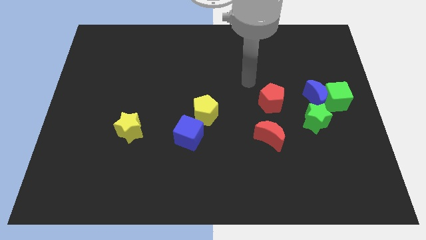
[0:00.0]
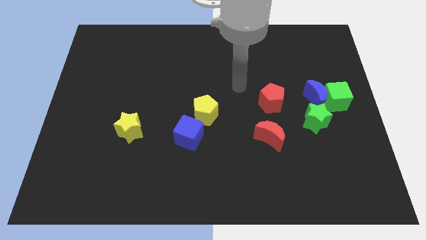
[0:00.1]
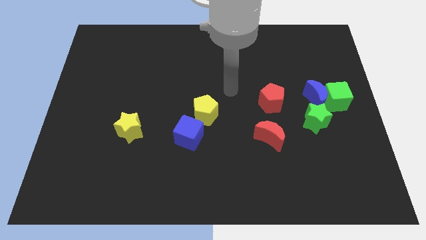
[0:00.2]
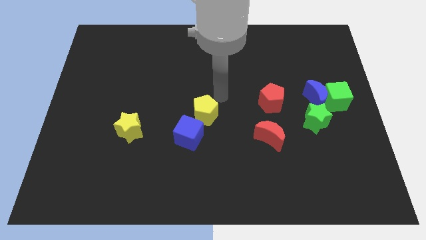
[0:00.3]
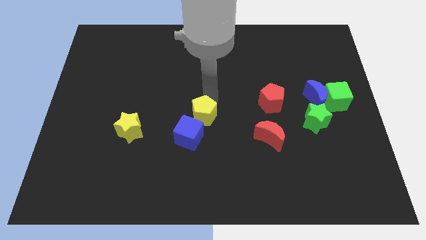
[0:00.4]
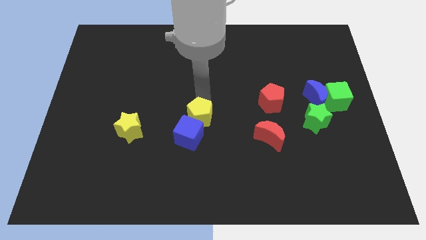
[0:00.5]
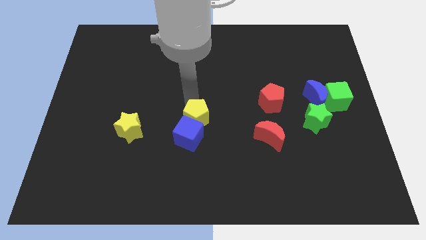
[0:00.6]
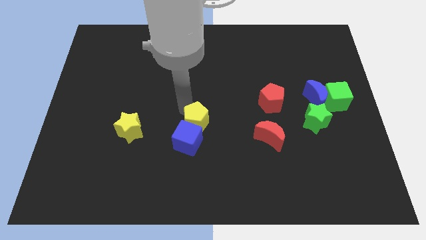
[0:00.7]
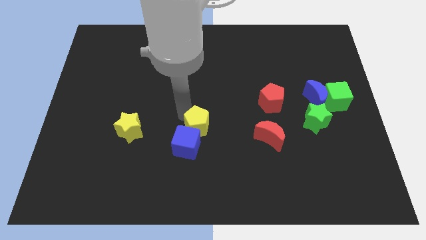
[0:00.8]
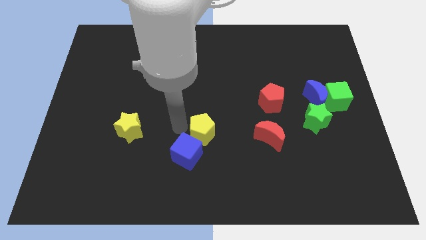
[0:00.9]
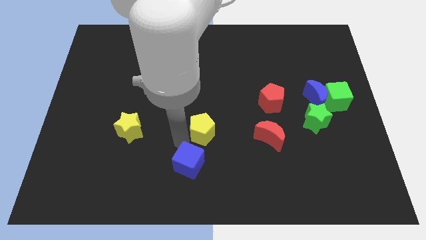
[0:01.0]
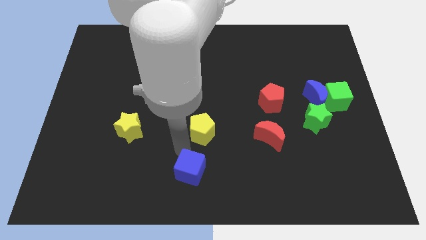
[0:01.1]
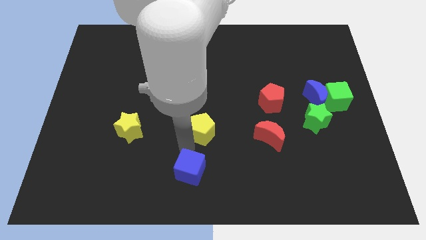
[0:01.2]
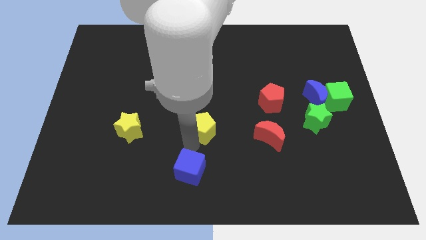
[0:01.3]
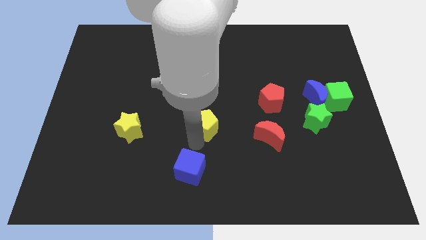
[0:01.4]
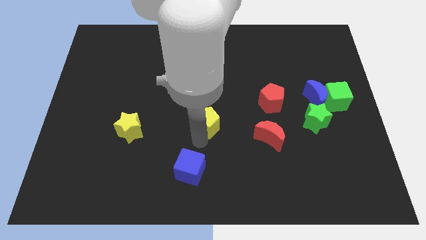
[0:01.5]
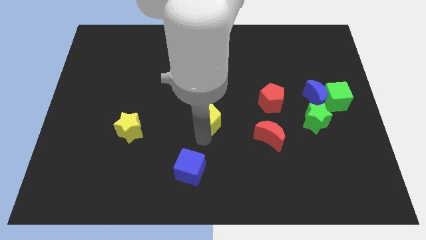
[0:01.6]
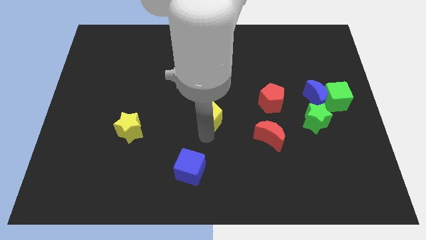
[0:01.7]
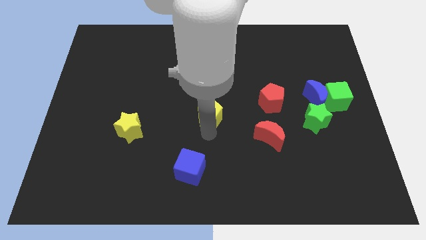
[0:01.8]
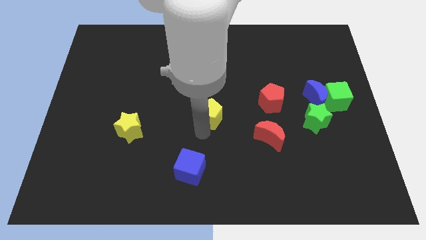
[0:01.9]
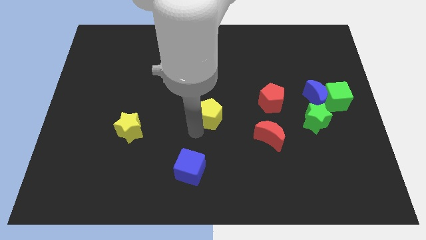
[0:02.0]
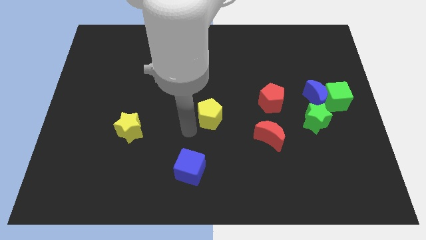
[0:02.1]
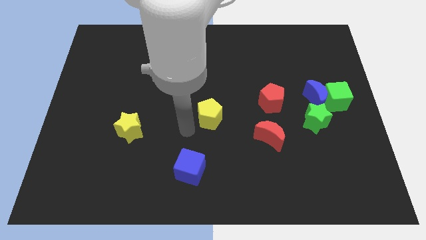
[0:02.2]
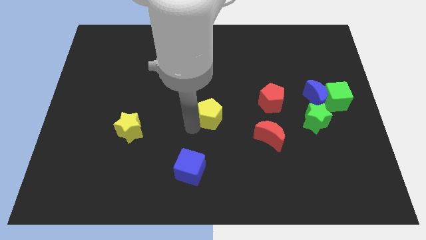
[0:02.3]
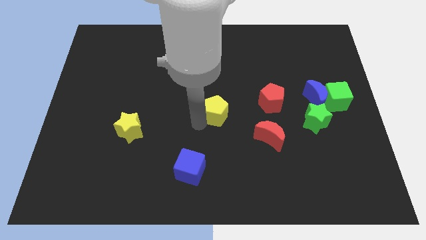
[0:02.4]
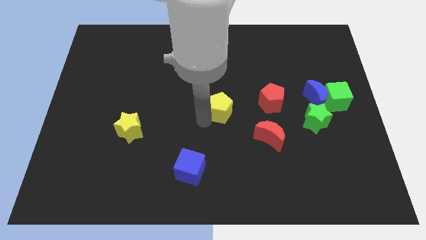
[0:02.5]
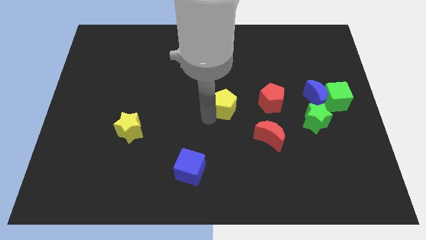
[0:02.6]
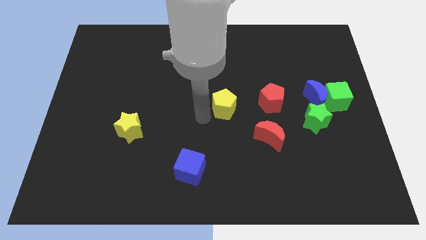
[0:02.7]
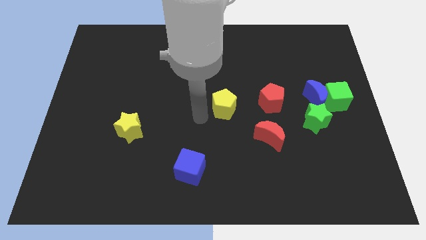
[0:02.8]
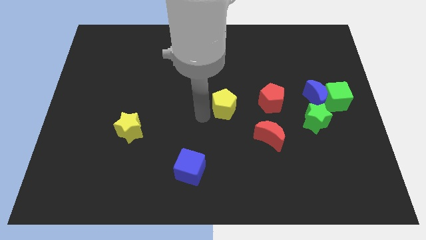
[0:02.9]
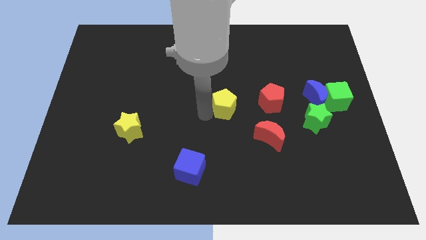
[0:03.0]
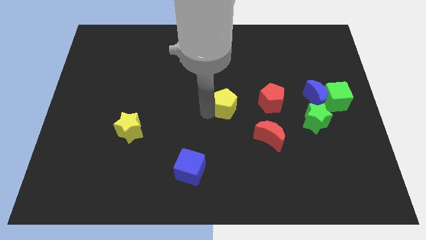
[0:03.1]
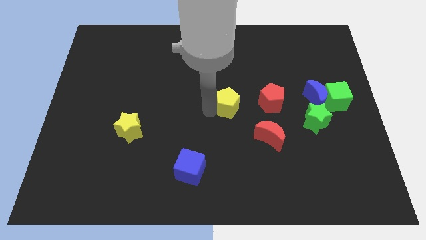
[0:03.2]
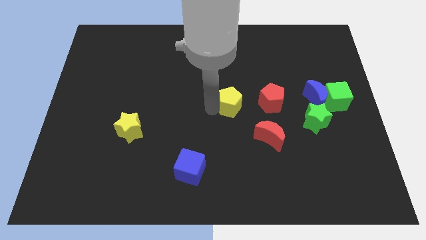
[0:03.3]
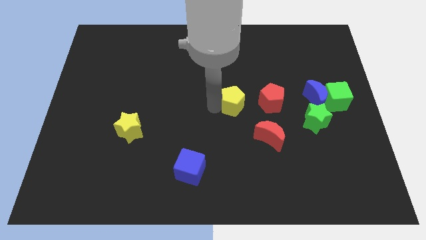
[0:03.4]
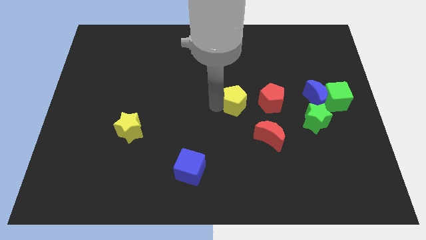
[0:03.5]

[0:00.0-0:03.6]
move the yellow pentagon to the right somewhat

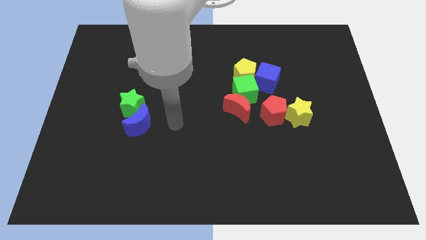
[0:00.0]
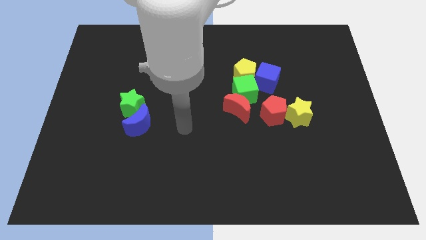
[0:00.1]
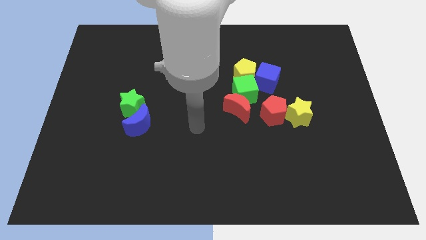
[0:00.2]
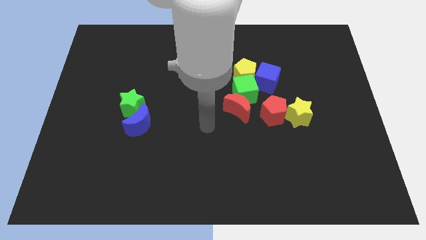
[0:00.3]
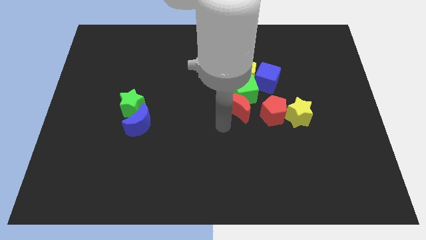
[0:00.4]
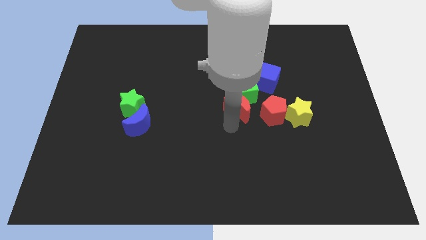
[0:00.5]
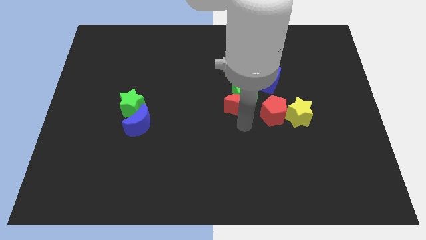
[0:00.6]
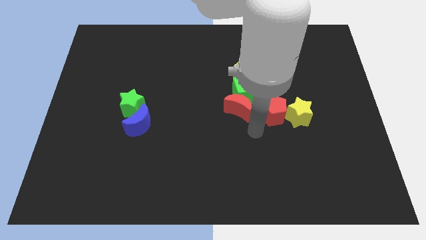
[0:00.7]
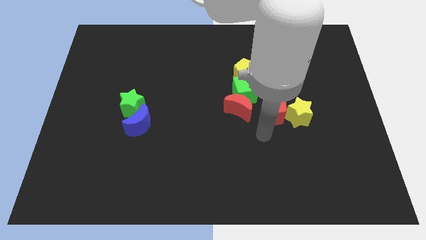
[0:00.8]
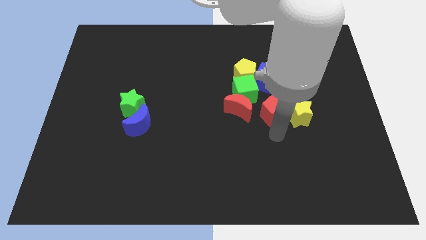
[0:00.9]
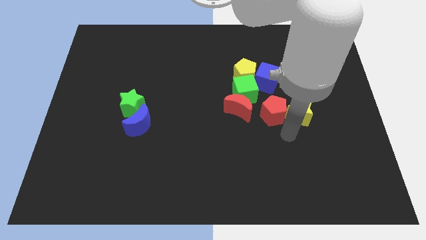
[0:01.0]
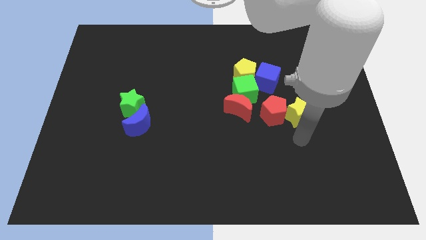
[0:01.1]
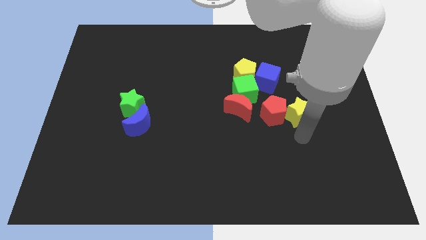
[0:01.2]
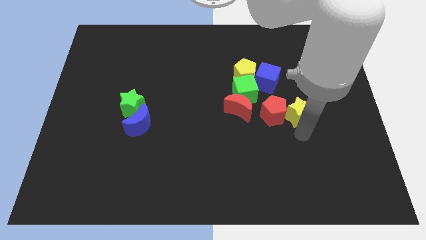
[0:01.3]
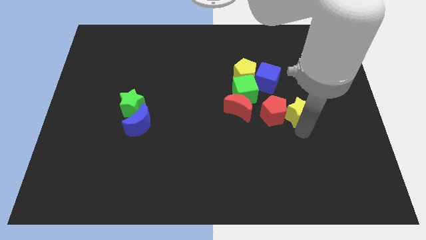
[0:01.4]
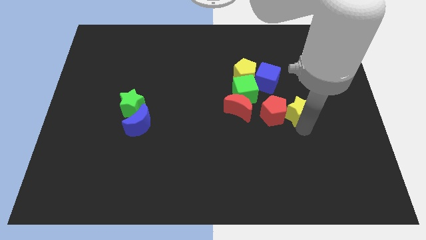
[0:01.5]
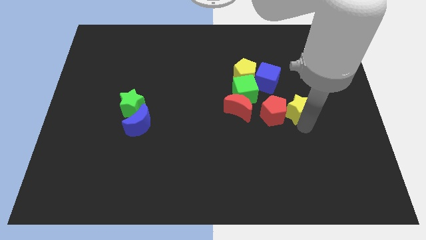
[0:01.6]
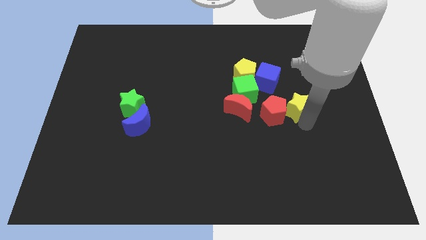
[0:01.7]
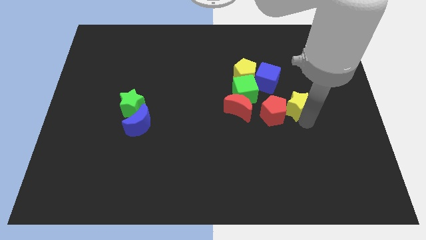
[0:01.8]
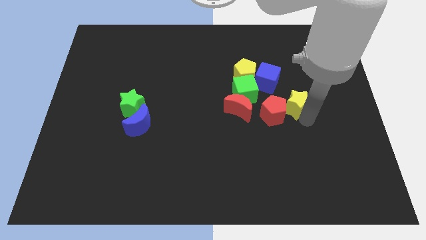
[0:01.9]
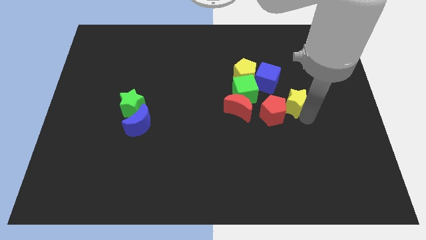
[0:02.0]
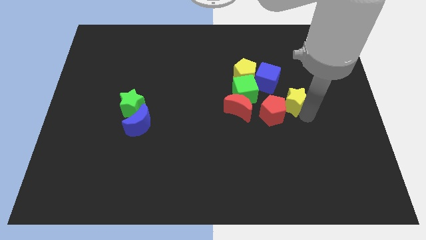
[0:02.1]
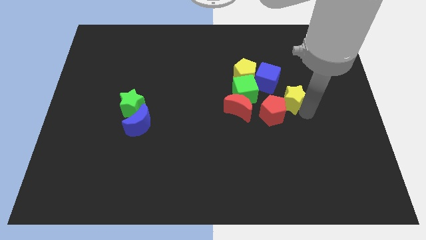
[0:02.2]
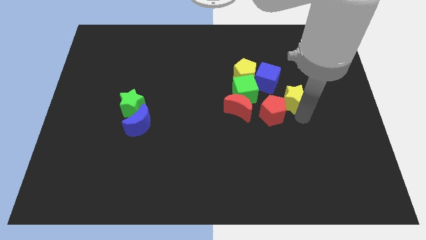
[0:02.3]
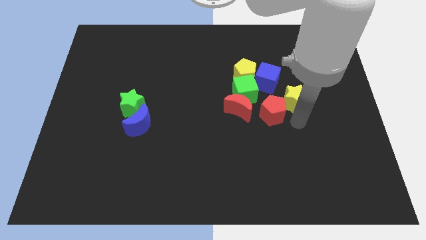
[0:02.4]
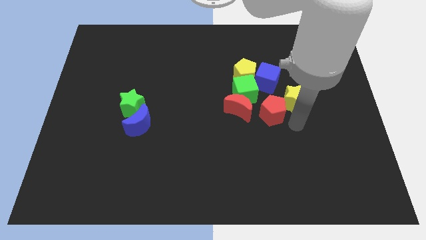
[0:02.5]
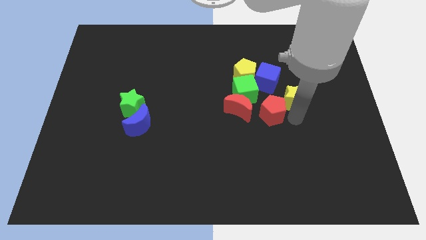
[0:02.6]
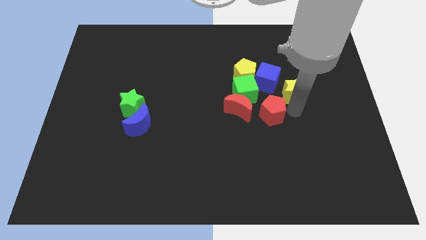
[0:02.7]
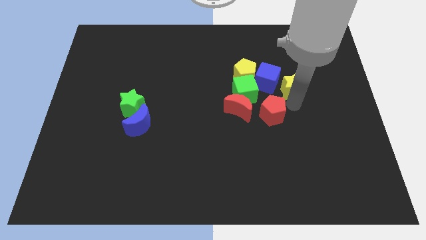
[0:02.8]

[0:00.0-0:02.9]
move the yellow star somewhat up

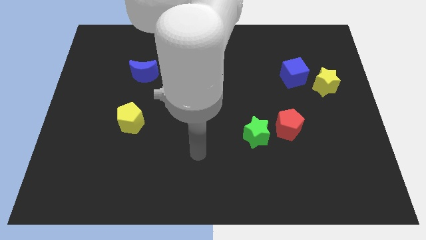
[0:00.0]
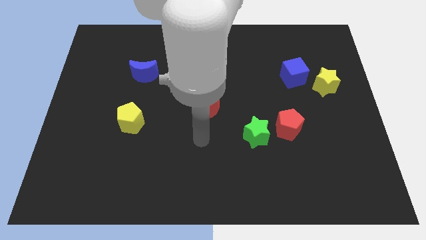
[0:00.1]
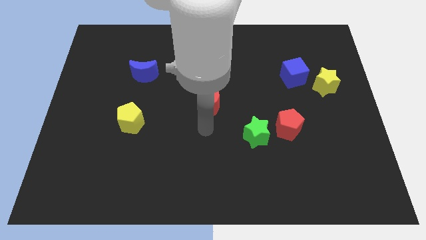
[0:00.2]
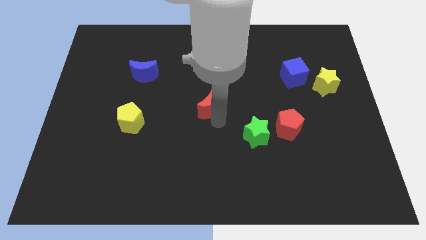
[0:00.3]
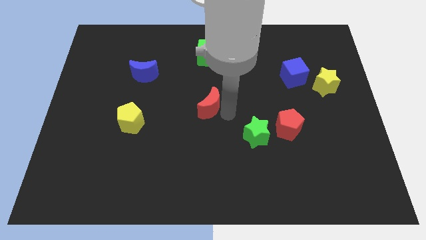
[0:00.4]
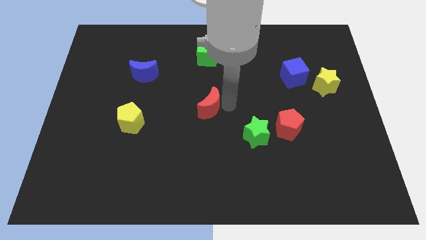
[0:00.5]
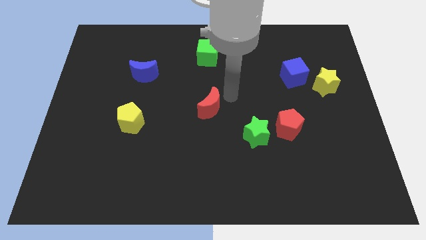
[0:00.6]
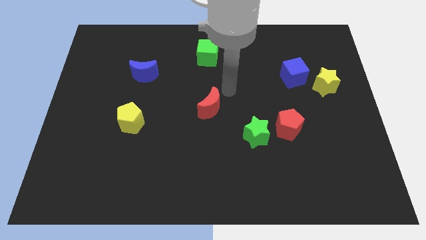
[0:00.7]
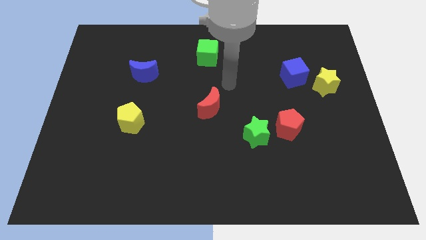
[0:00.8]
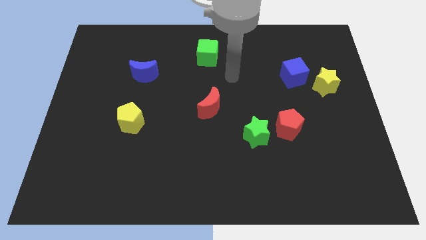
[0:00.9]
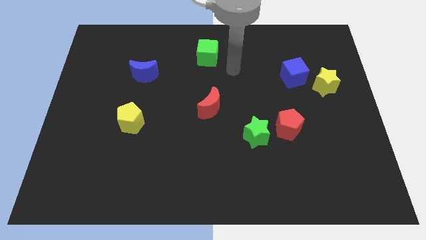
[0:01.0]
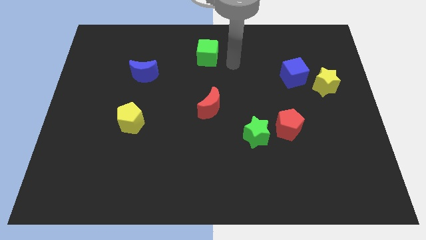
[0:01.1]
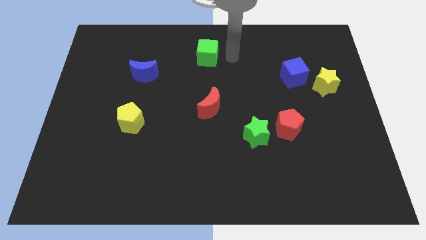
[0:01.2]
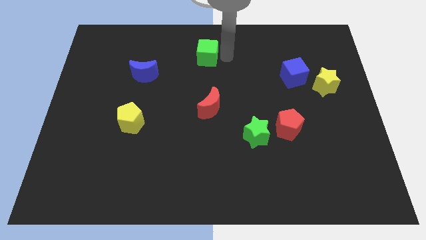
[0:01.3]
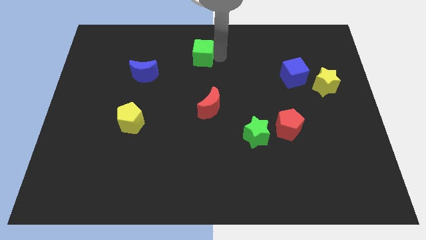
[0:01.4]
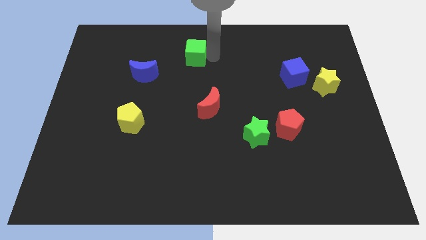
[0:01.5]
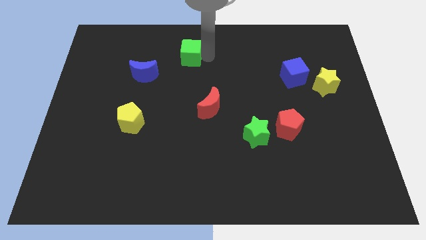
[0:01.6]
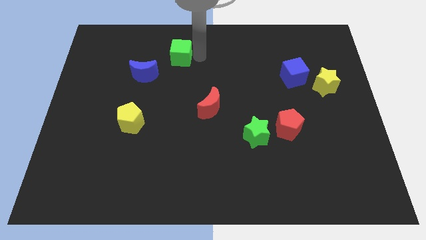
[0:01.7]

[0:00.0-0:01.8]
move the green cube a little bit to the left
